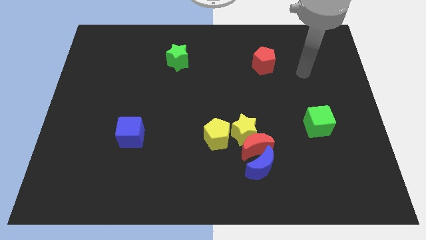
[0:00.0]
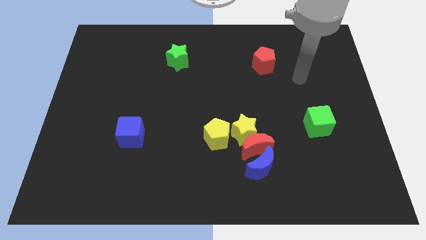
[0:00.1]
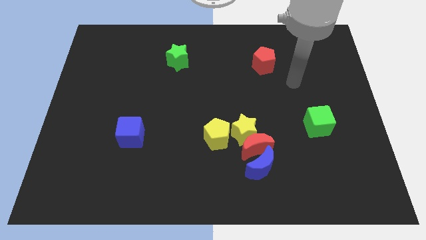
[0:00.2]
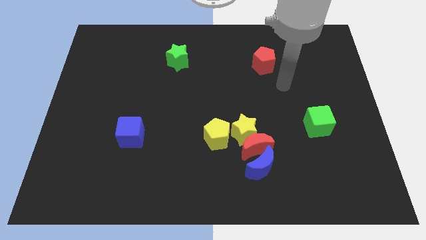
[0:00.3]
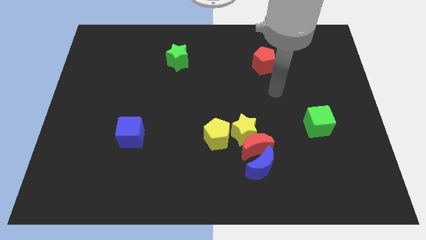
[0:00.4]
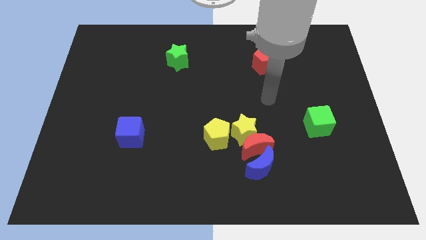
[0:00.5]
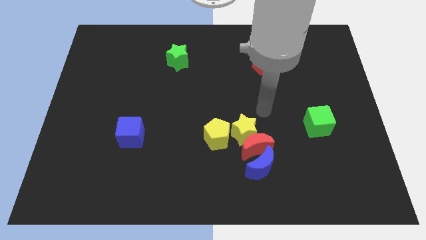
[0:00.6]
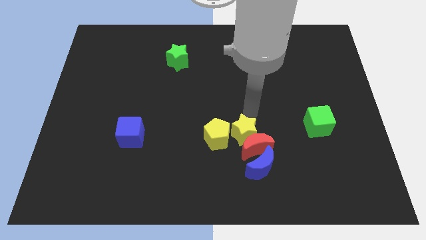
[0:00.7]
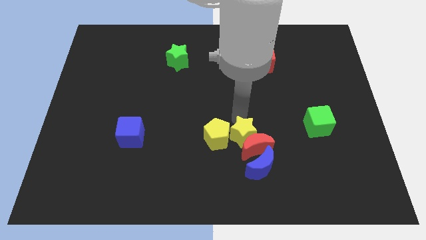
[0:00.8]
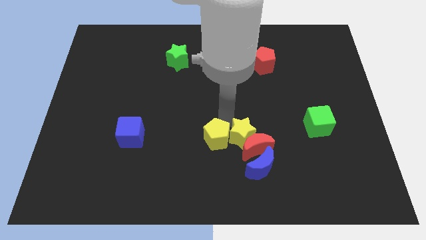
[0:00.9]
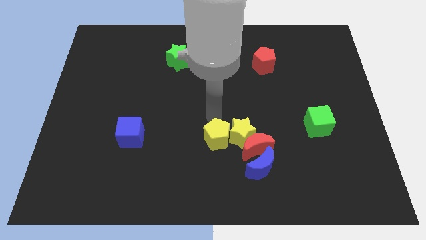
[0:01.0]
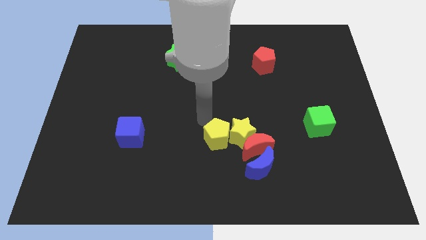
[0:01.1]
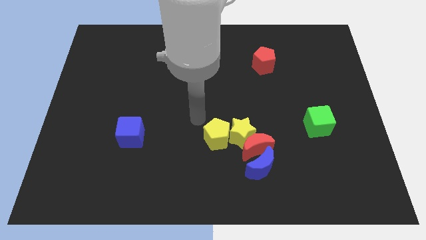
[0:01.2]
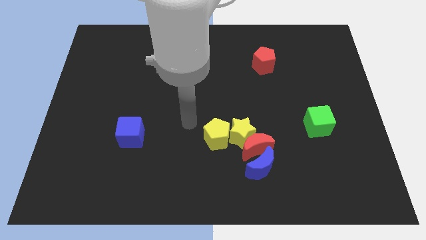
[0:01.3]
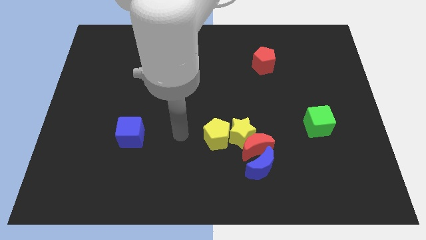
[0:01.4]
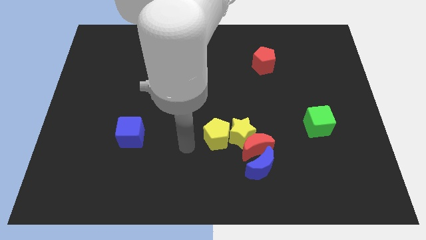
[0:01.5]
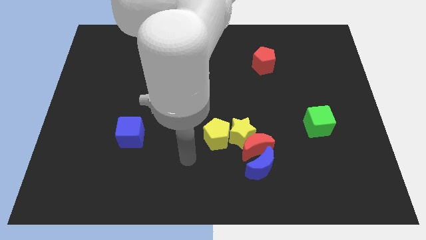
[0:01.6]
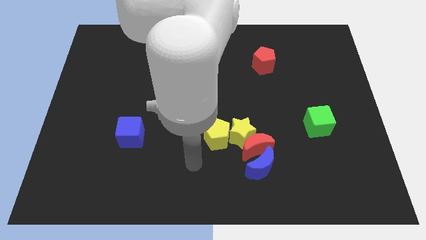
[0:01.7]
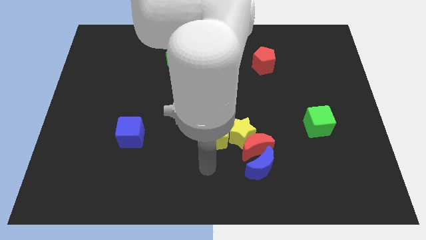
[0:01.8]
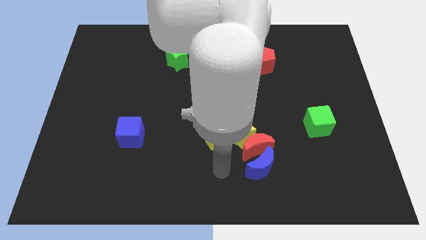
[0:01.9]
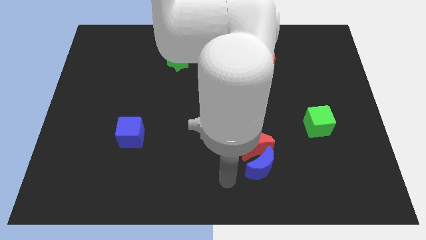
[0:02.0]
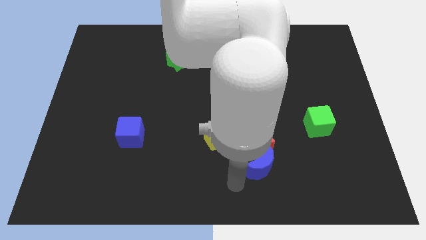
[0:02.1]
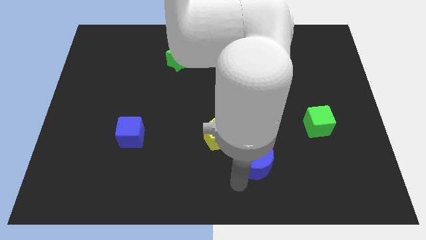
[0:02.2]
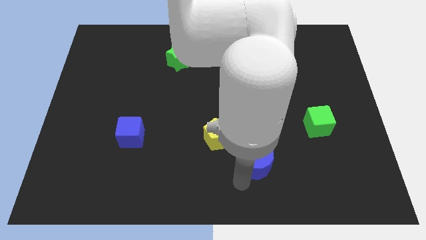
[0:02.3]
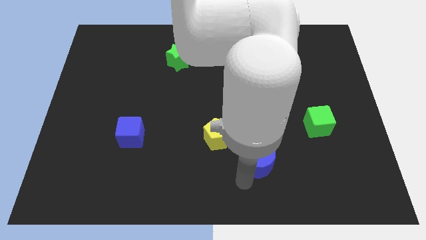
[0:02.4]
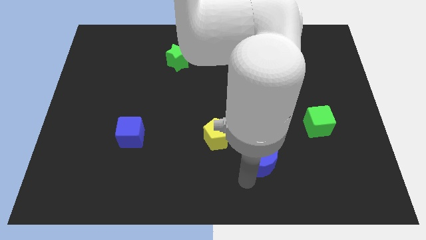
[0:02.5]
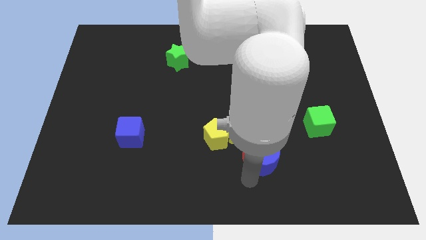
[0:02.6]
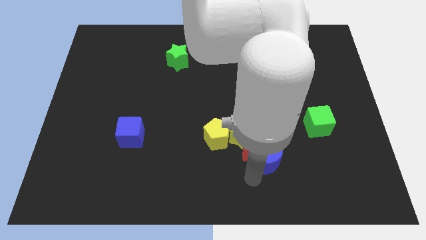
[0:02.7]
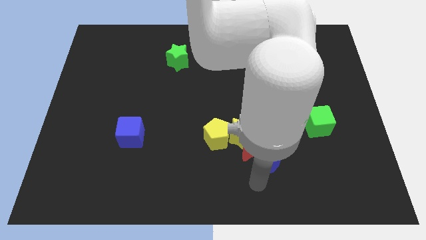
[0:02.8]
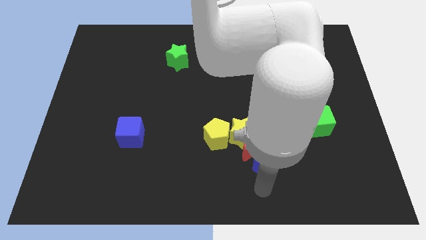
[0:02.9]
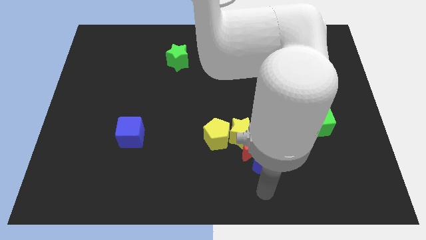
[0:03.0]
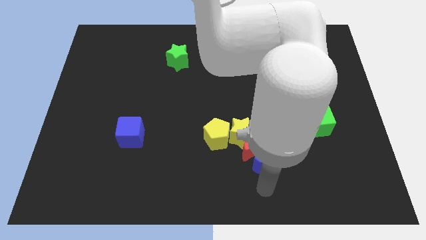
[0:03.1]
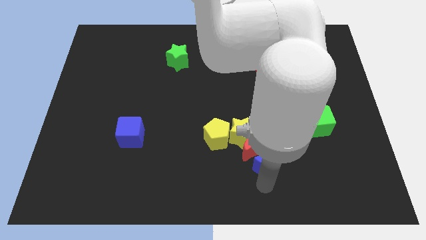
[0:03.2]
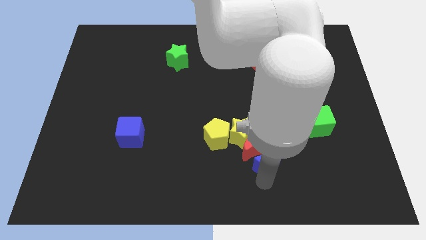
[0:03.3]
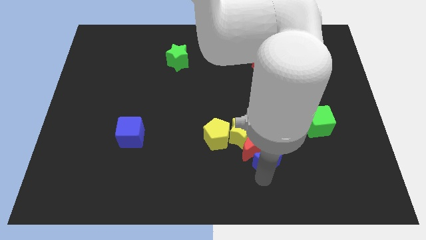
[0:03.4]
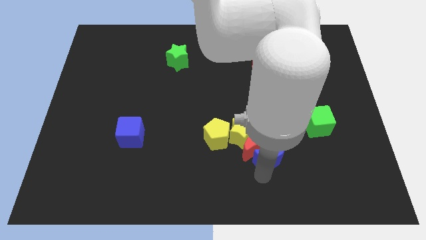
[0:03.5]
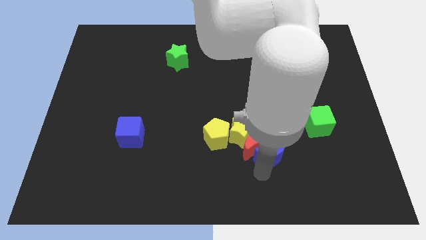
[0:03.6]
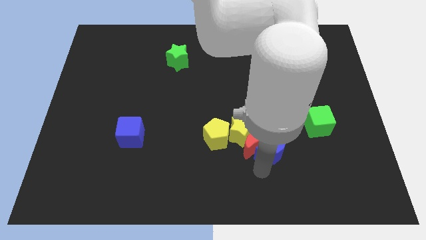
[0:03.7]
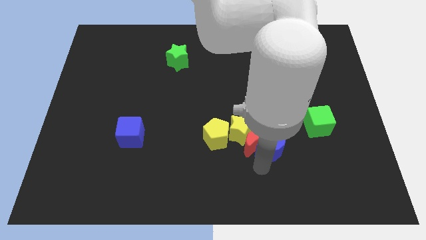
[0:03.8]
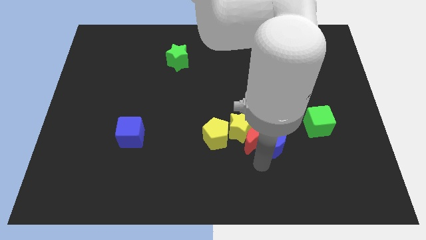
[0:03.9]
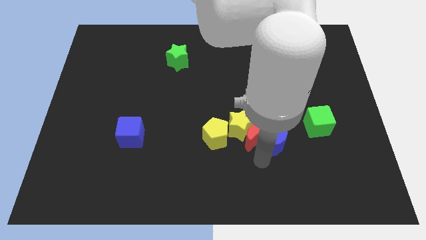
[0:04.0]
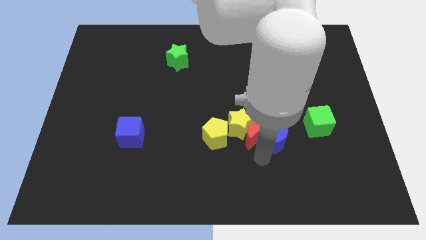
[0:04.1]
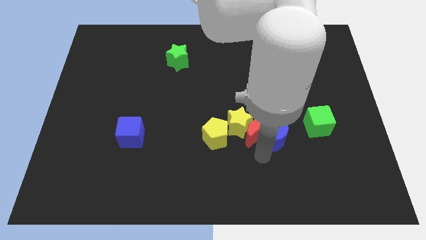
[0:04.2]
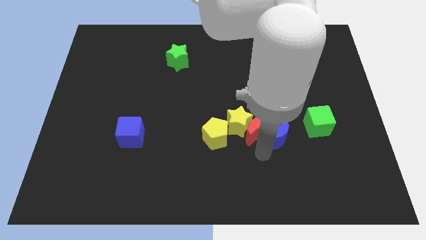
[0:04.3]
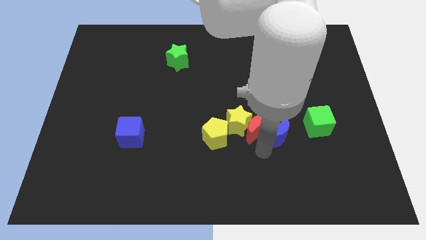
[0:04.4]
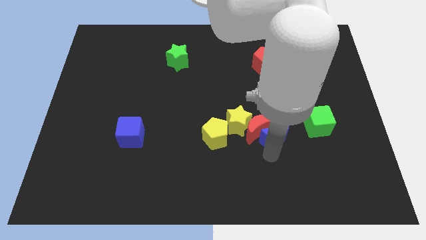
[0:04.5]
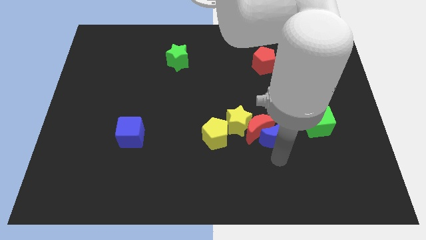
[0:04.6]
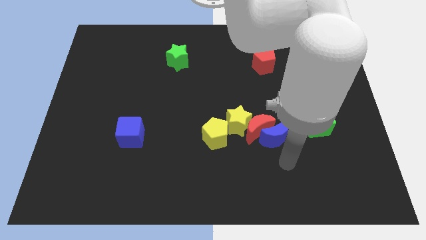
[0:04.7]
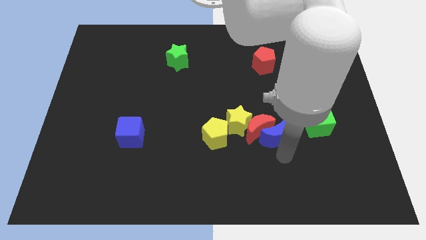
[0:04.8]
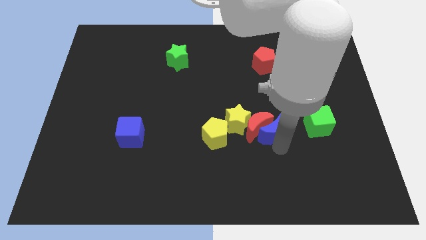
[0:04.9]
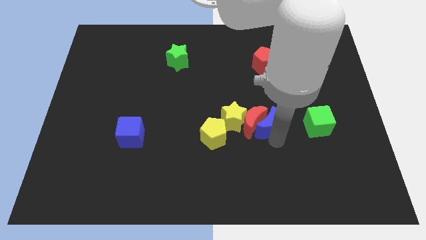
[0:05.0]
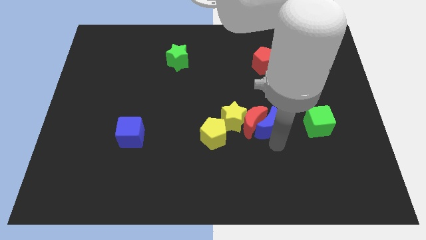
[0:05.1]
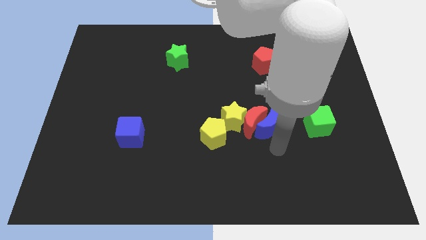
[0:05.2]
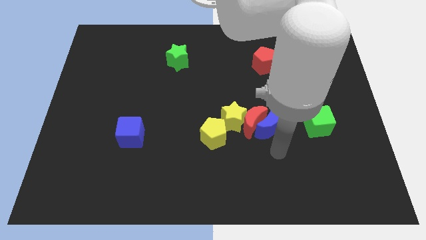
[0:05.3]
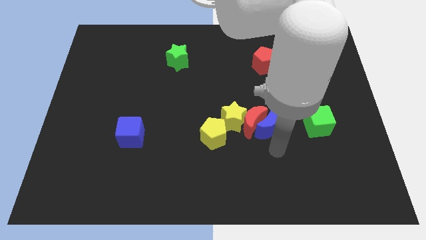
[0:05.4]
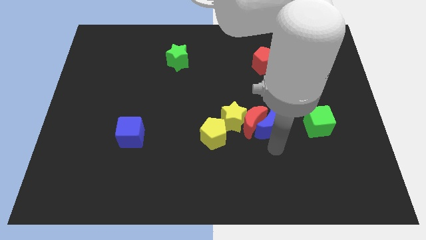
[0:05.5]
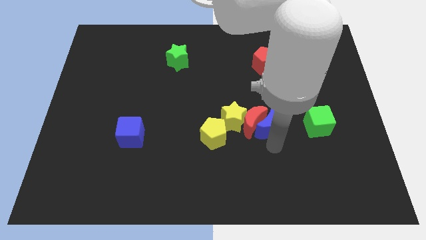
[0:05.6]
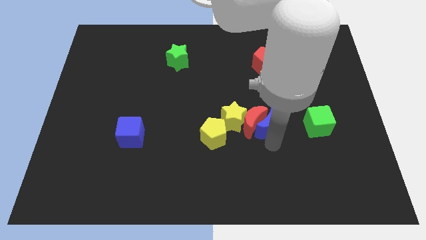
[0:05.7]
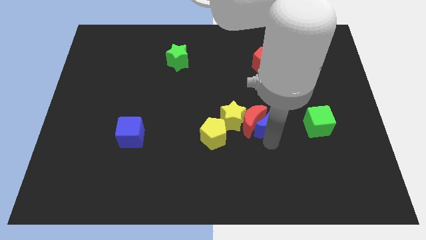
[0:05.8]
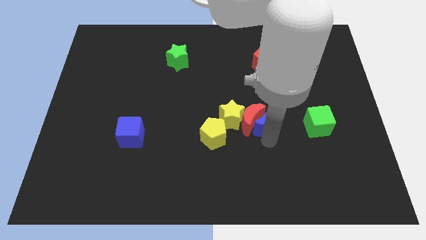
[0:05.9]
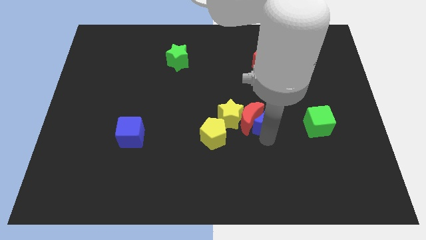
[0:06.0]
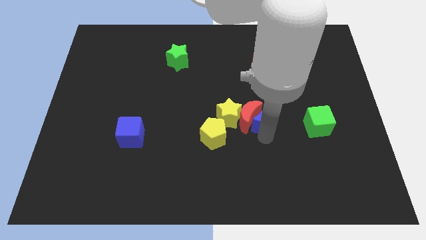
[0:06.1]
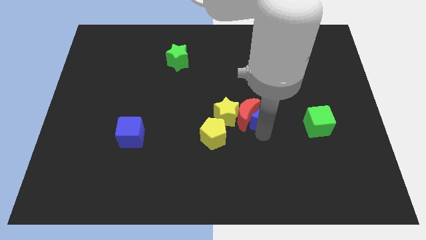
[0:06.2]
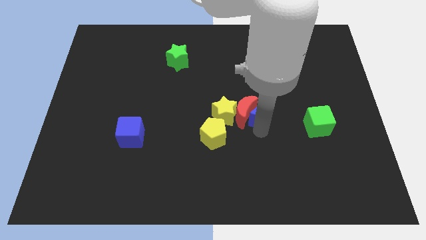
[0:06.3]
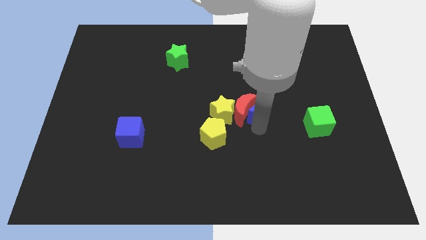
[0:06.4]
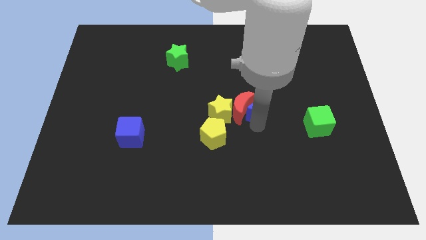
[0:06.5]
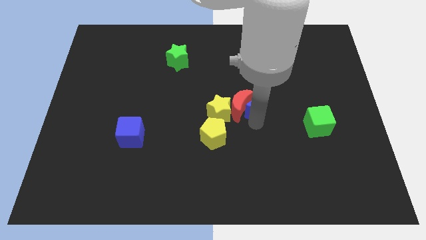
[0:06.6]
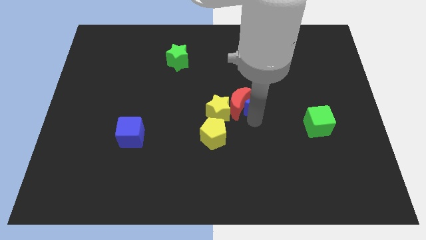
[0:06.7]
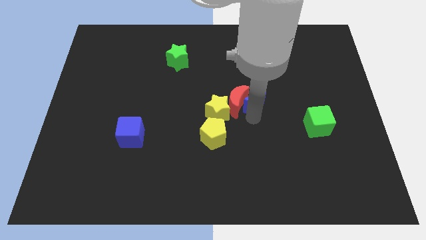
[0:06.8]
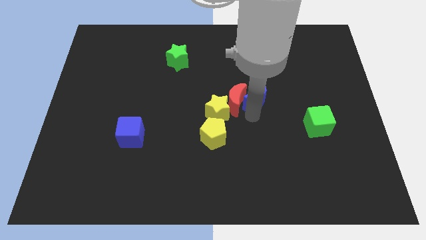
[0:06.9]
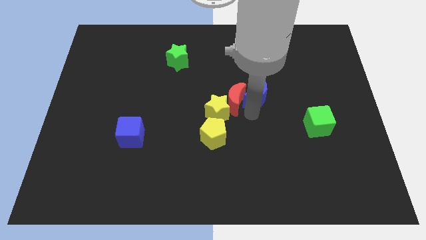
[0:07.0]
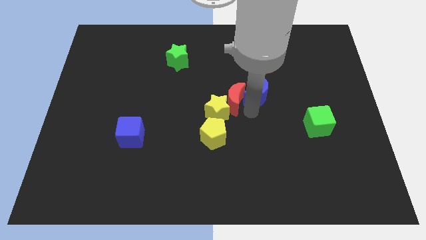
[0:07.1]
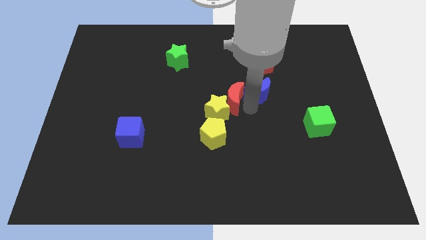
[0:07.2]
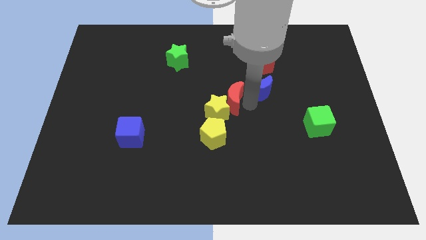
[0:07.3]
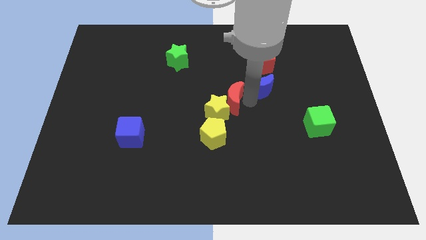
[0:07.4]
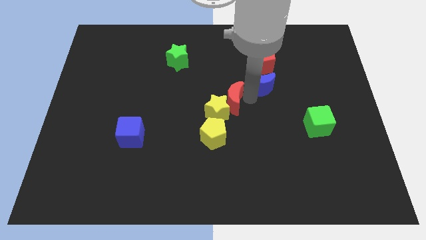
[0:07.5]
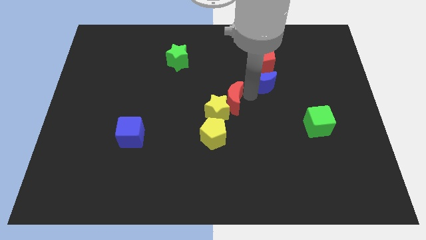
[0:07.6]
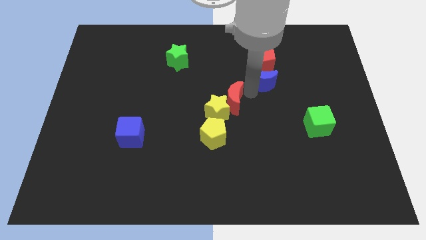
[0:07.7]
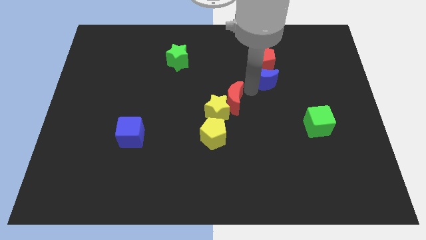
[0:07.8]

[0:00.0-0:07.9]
move the blue moon to the red pentagon
